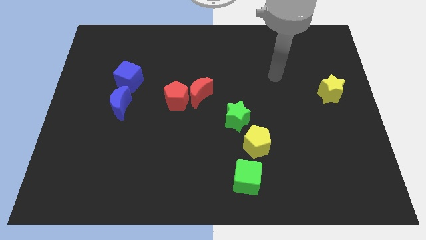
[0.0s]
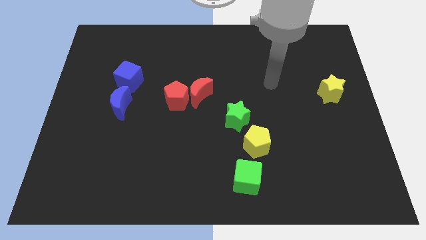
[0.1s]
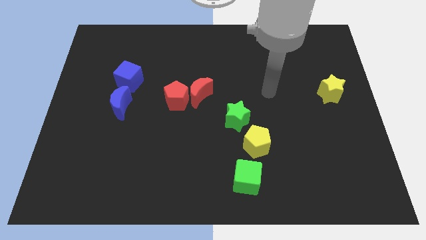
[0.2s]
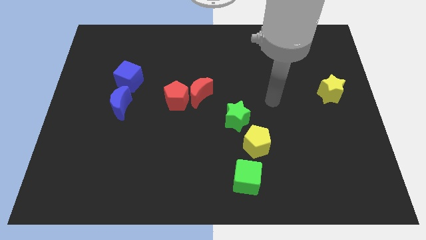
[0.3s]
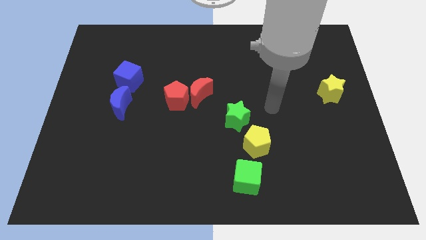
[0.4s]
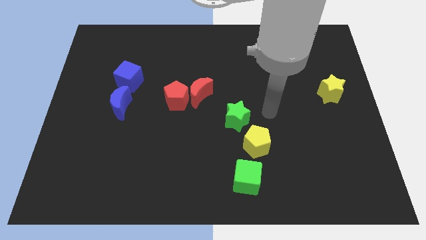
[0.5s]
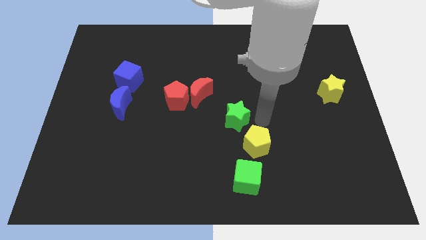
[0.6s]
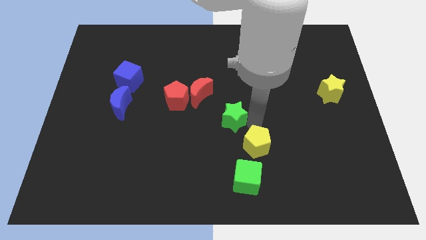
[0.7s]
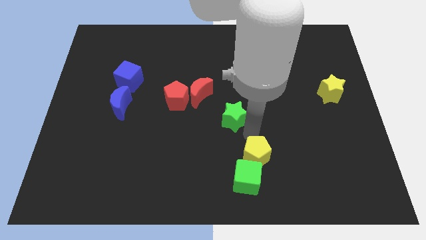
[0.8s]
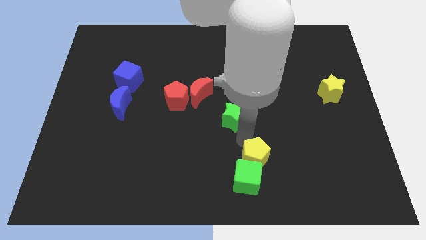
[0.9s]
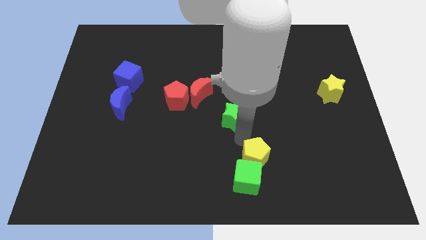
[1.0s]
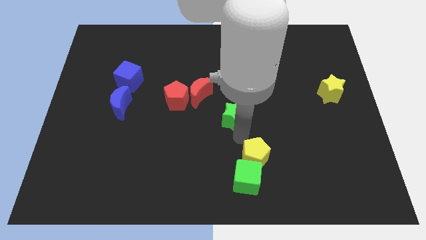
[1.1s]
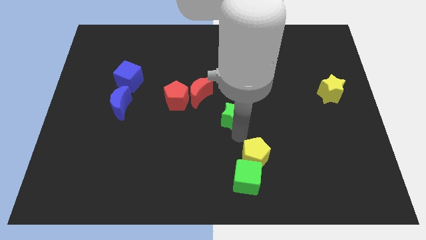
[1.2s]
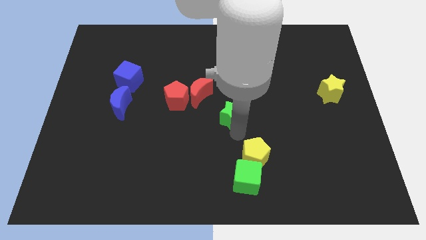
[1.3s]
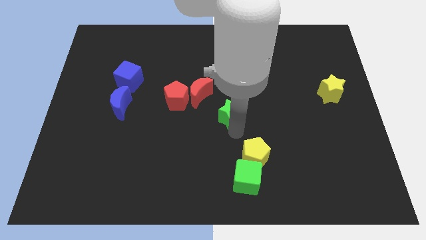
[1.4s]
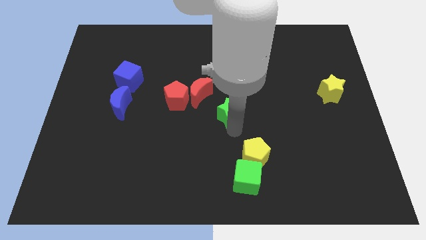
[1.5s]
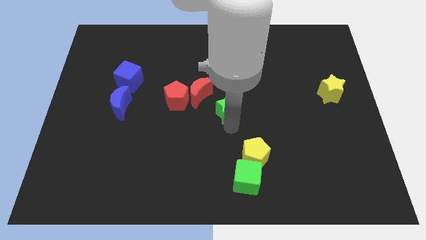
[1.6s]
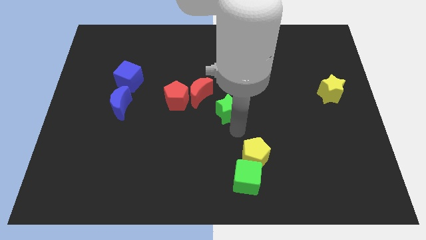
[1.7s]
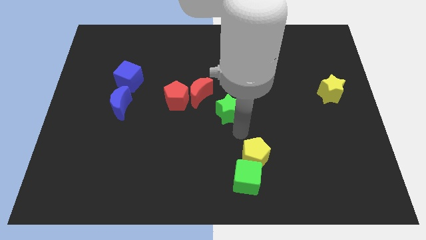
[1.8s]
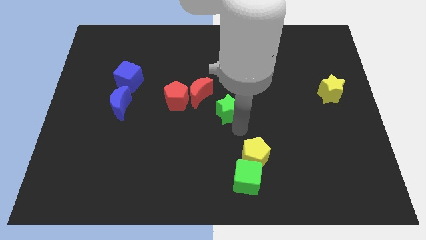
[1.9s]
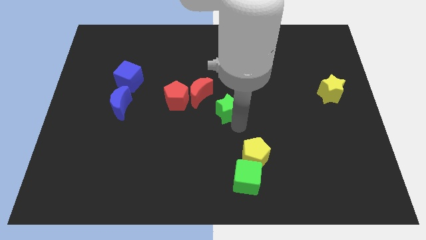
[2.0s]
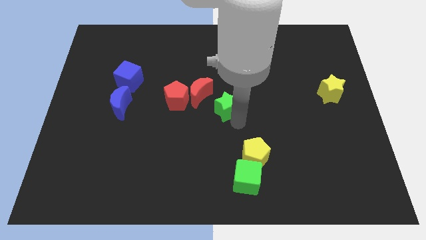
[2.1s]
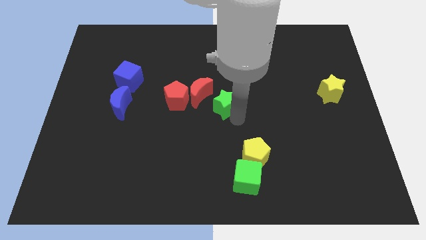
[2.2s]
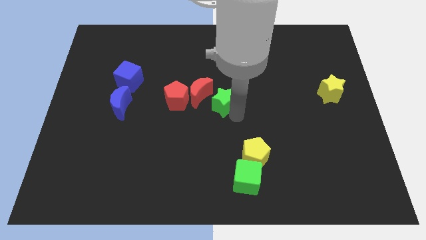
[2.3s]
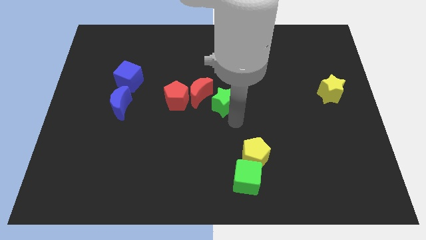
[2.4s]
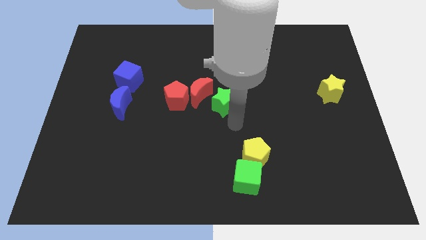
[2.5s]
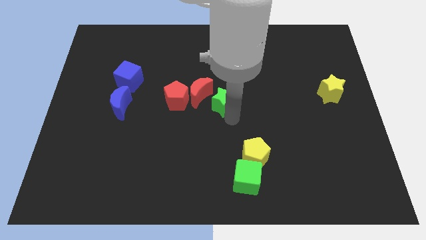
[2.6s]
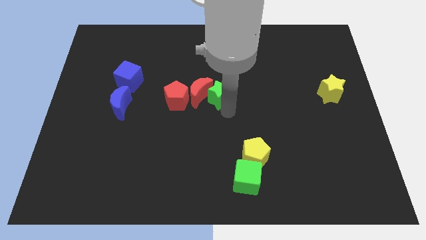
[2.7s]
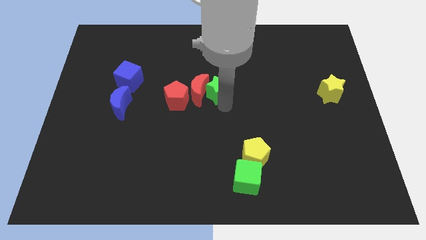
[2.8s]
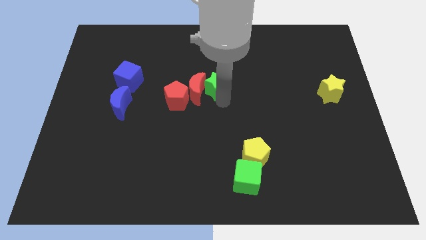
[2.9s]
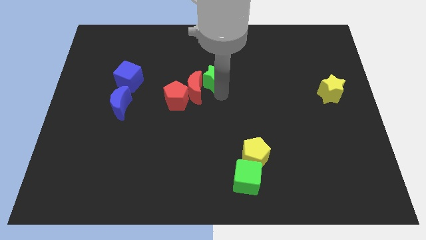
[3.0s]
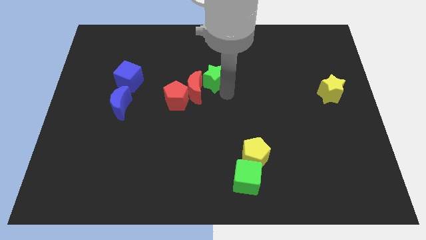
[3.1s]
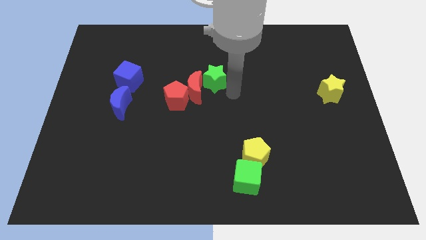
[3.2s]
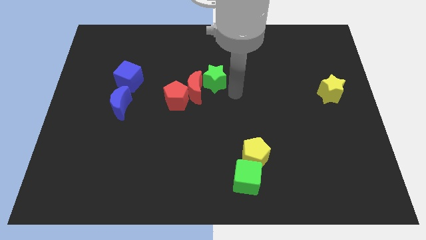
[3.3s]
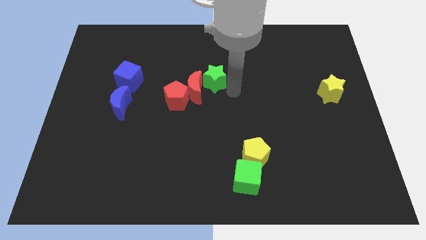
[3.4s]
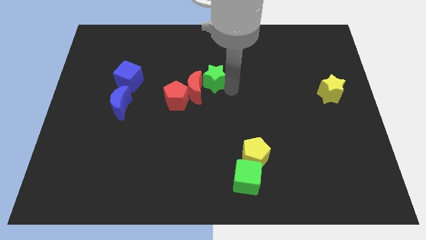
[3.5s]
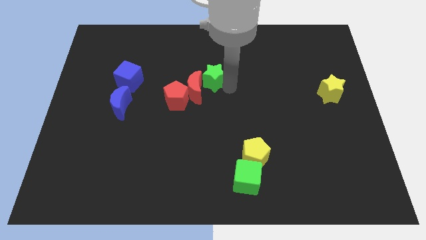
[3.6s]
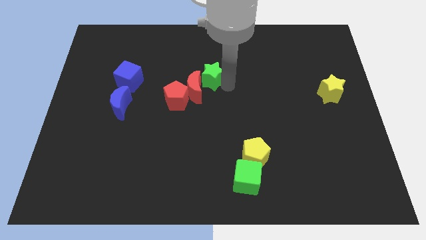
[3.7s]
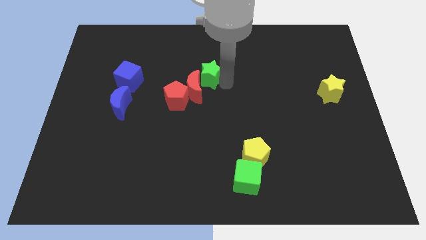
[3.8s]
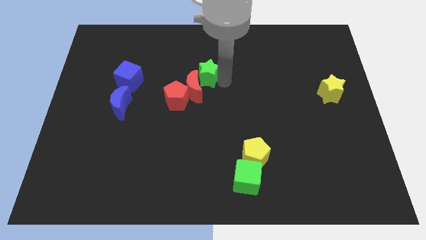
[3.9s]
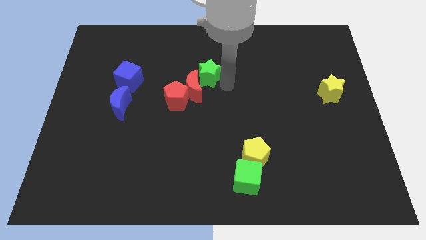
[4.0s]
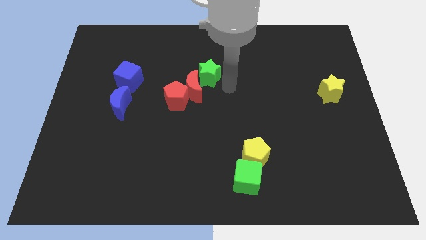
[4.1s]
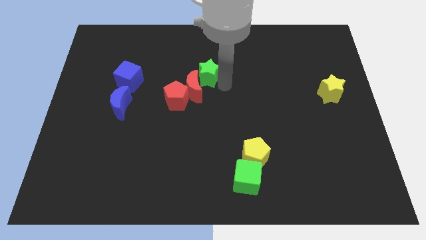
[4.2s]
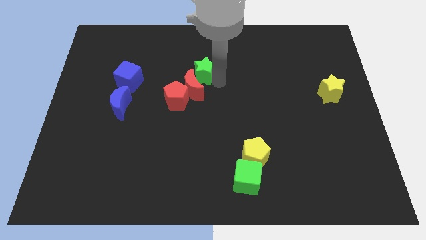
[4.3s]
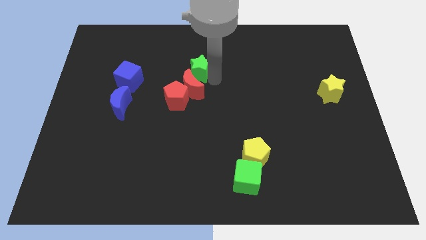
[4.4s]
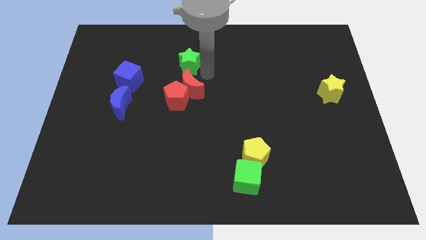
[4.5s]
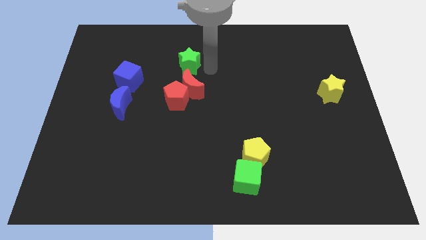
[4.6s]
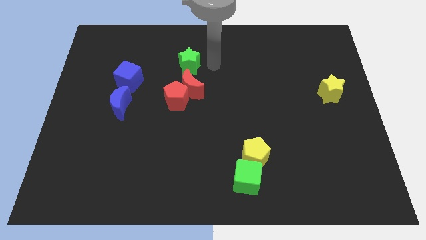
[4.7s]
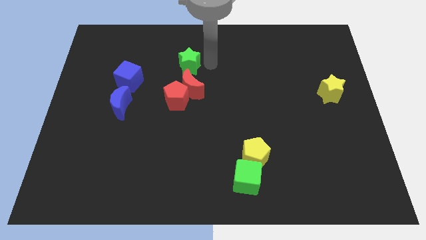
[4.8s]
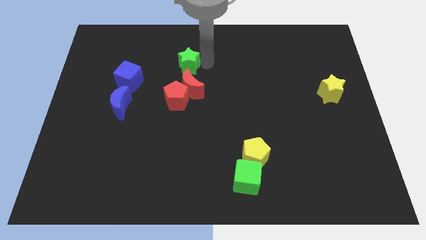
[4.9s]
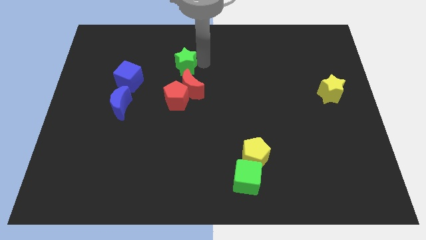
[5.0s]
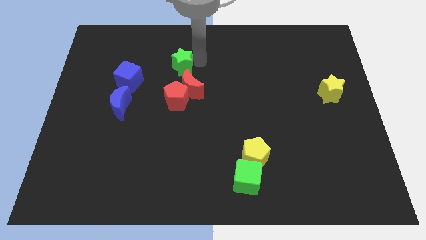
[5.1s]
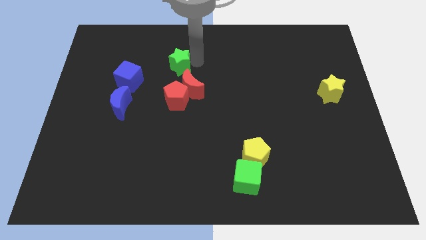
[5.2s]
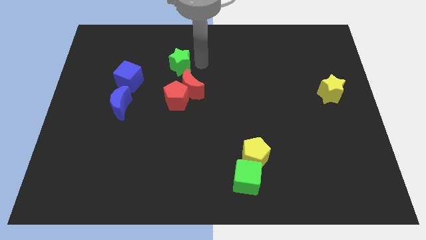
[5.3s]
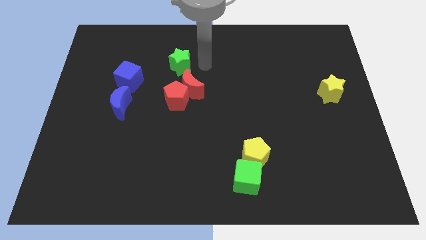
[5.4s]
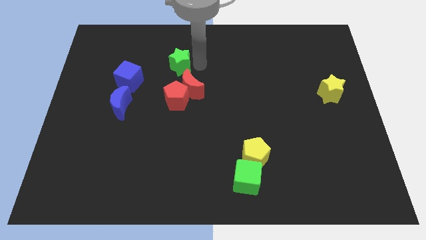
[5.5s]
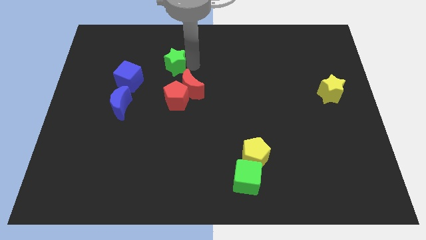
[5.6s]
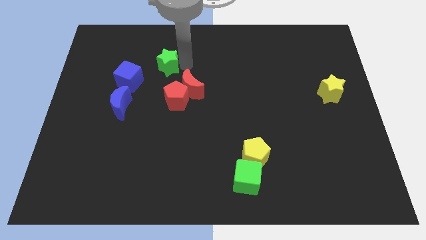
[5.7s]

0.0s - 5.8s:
slide the green star to the top right of the blue cube

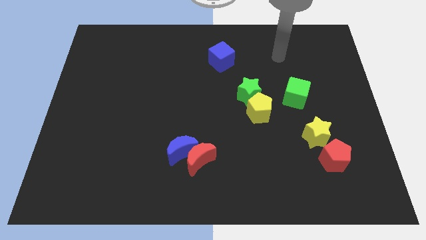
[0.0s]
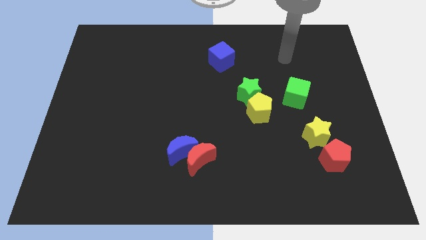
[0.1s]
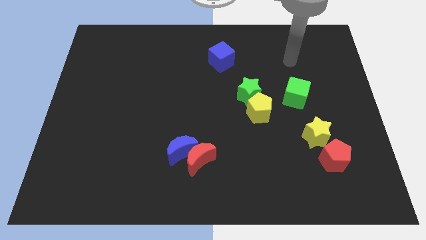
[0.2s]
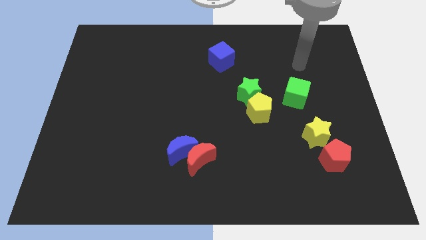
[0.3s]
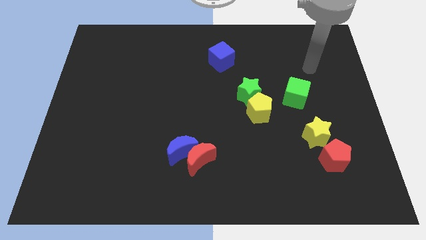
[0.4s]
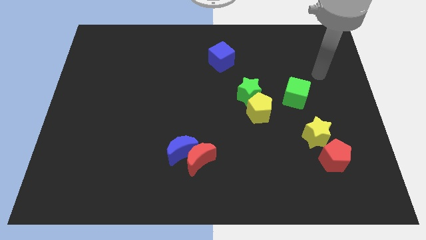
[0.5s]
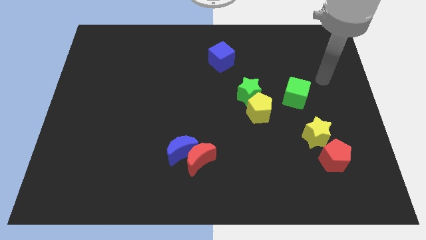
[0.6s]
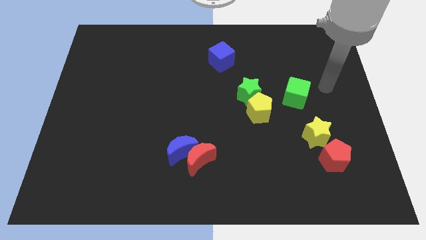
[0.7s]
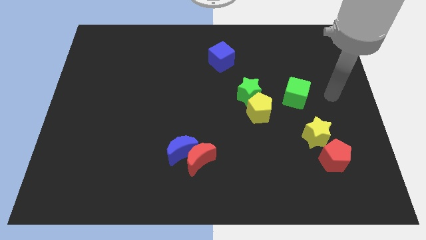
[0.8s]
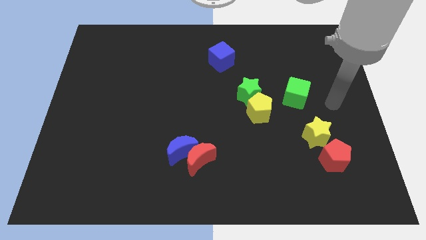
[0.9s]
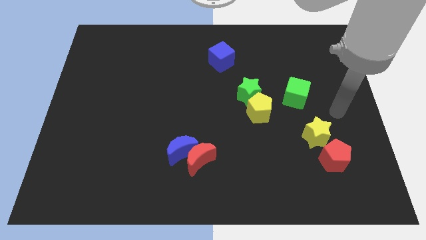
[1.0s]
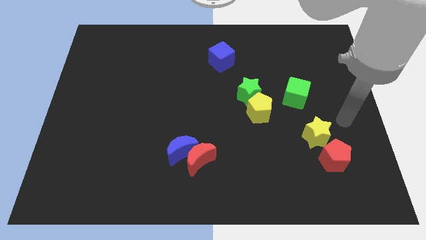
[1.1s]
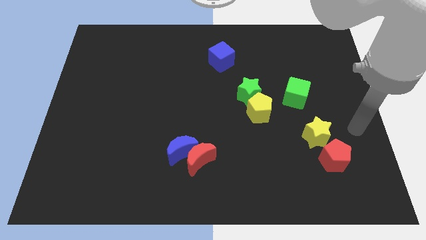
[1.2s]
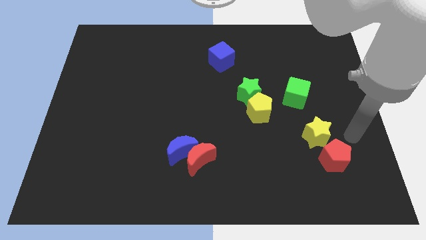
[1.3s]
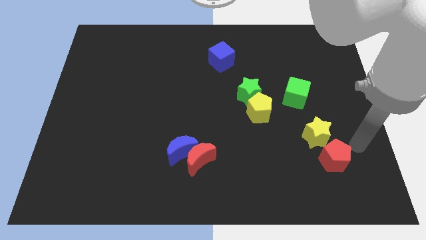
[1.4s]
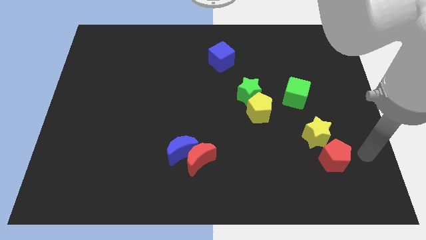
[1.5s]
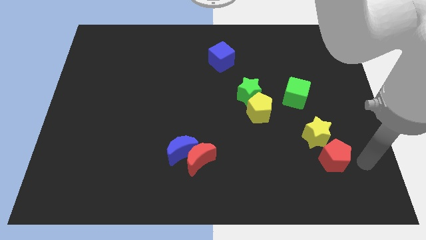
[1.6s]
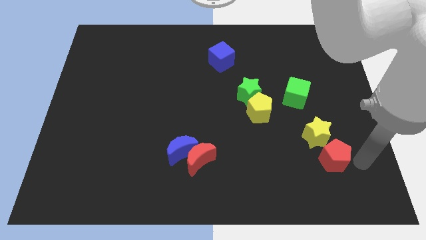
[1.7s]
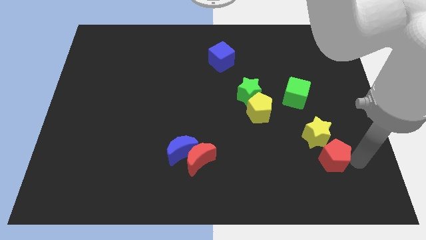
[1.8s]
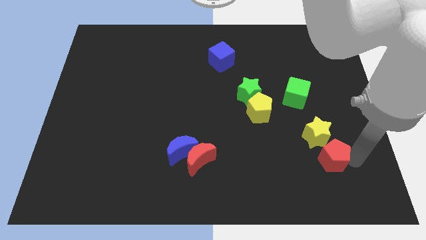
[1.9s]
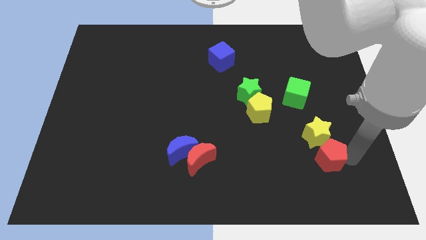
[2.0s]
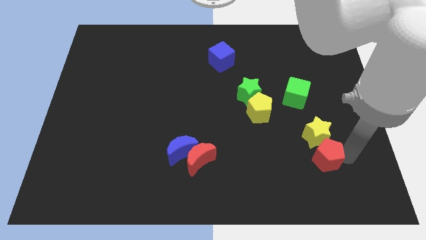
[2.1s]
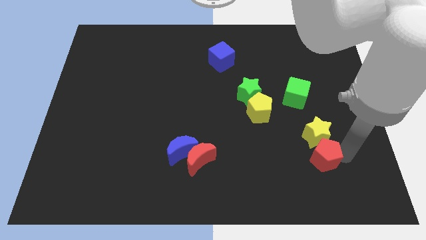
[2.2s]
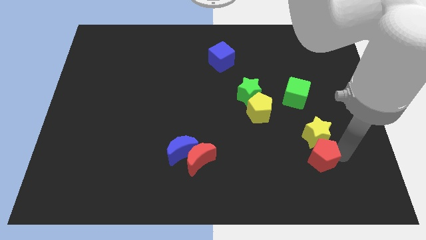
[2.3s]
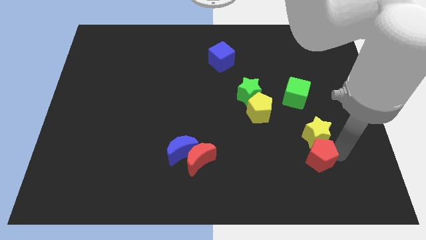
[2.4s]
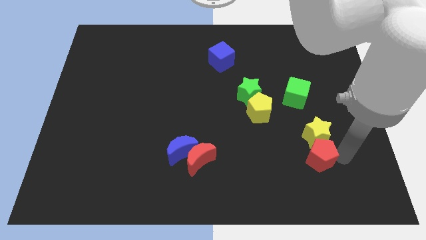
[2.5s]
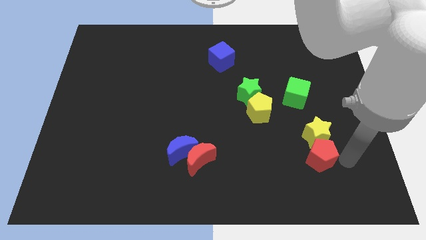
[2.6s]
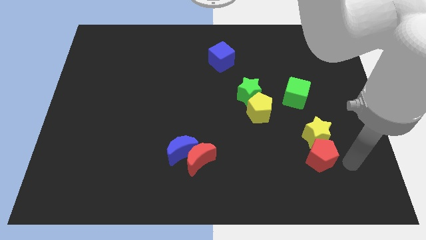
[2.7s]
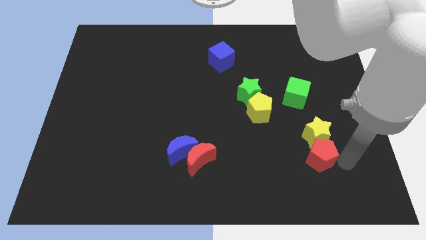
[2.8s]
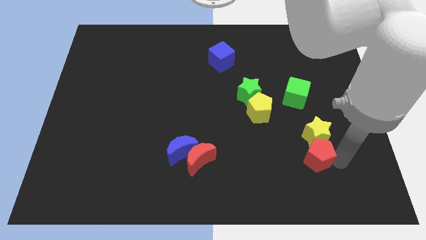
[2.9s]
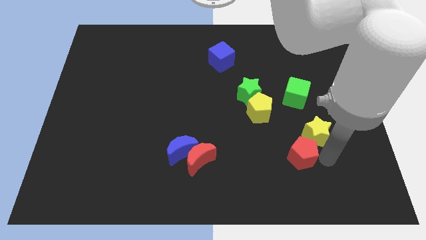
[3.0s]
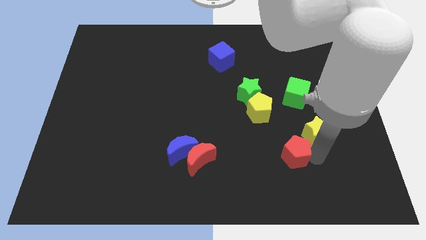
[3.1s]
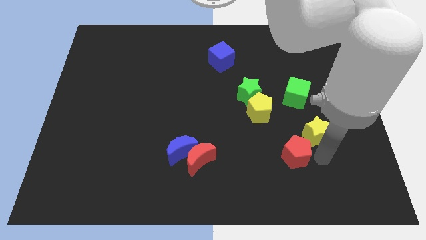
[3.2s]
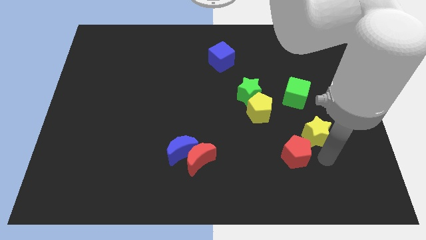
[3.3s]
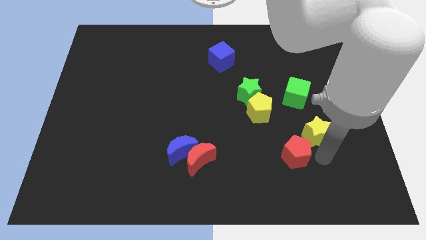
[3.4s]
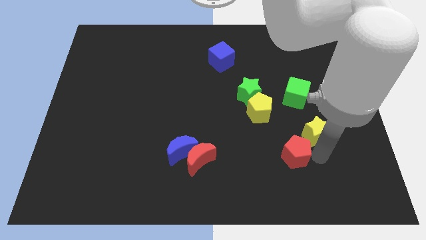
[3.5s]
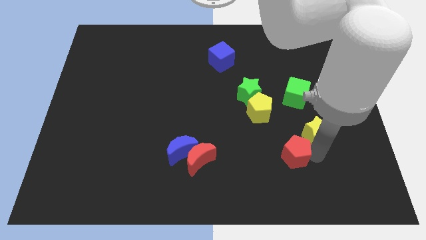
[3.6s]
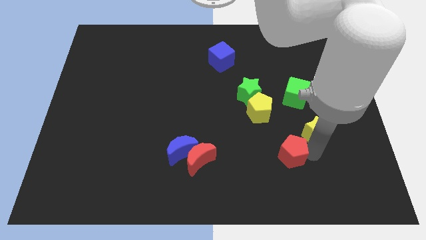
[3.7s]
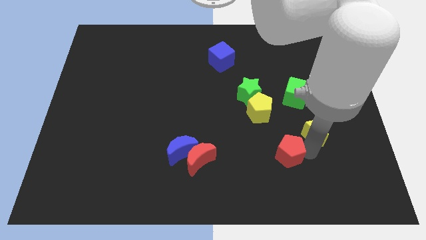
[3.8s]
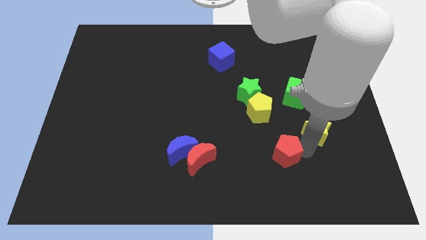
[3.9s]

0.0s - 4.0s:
slide the red pentagon to the bottom side of the yellow pentagon
